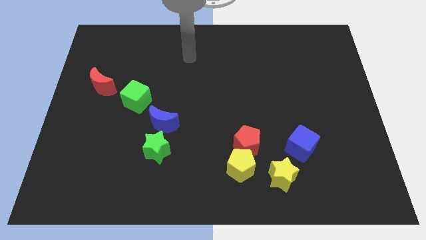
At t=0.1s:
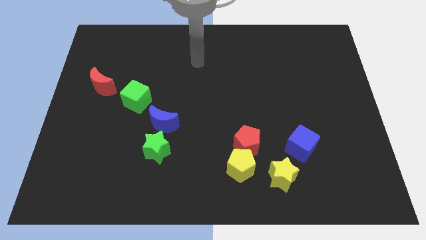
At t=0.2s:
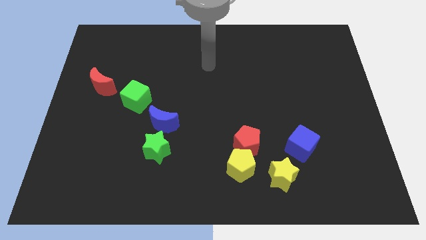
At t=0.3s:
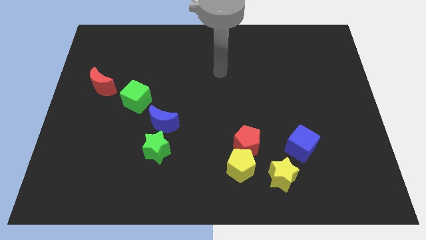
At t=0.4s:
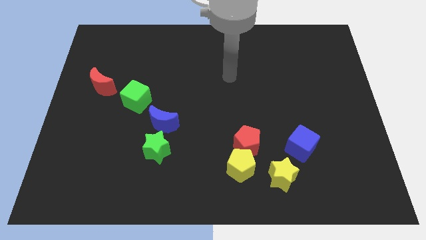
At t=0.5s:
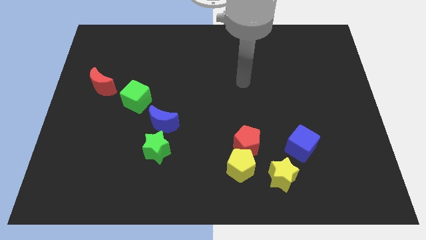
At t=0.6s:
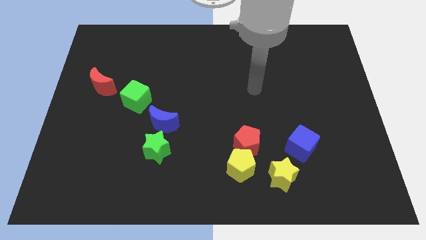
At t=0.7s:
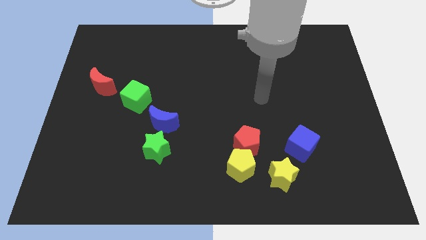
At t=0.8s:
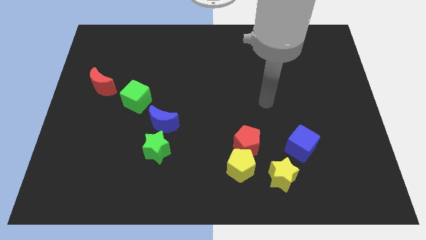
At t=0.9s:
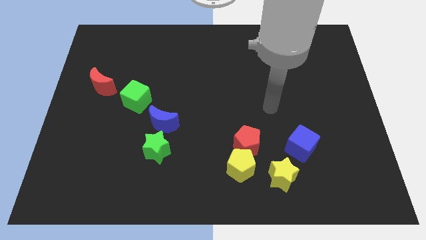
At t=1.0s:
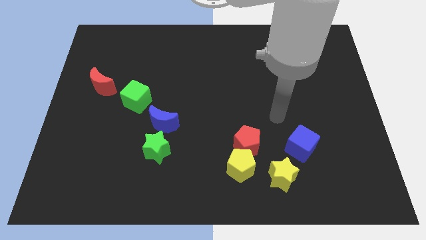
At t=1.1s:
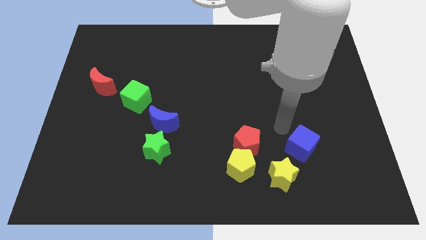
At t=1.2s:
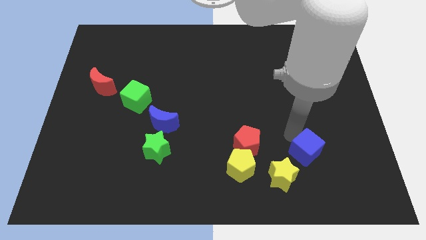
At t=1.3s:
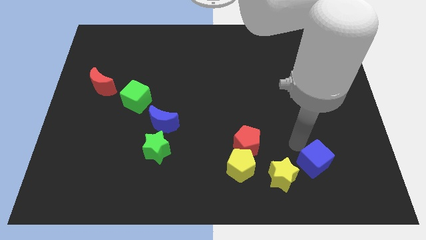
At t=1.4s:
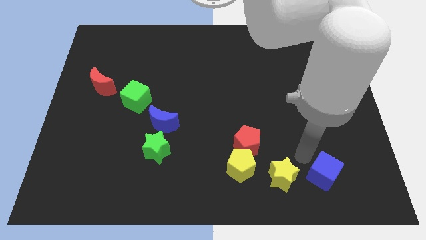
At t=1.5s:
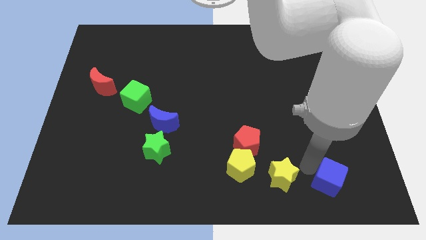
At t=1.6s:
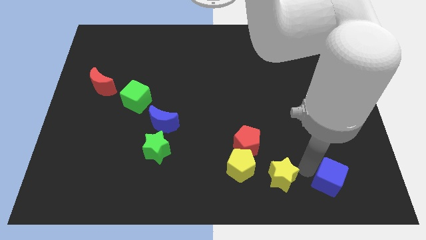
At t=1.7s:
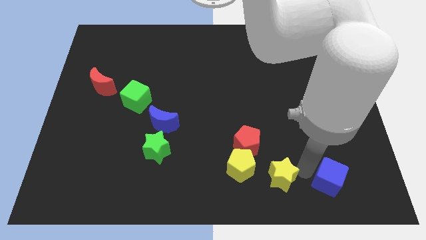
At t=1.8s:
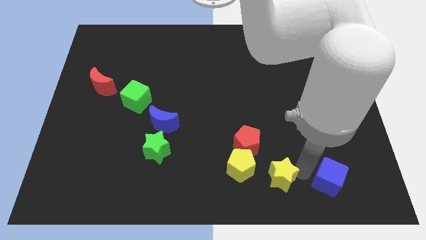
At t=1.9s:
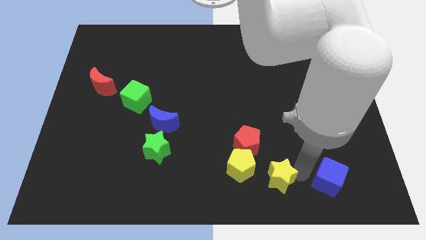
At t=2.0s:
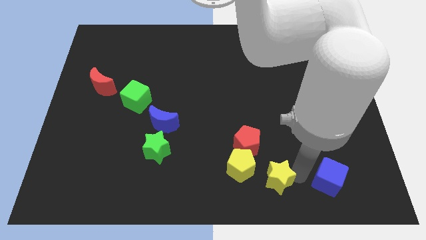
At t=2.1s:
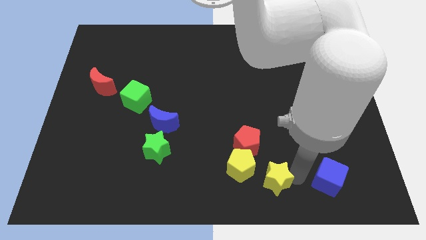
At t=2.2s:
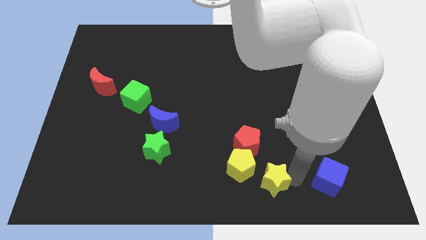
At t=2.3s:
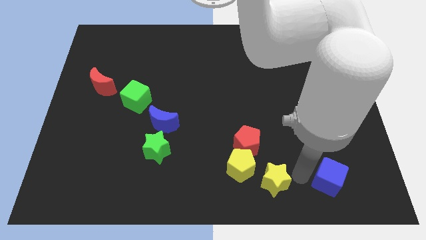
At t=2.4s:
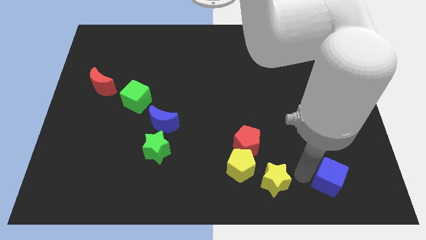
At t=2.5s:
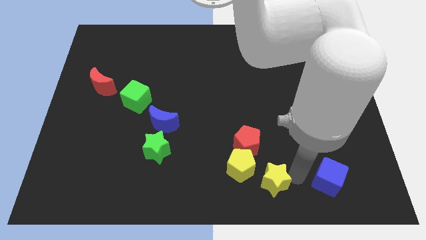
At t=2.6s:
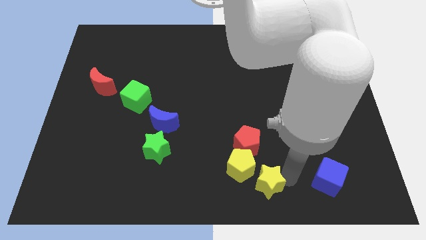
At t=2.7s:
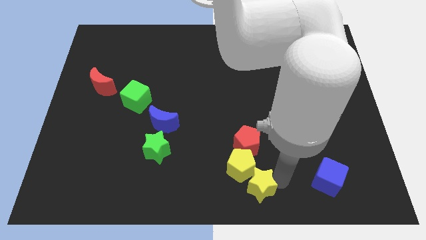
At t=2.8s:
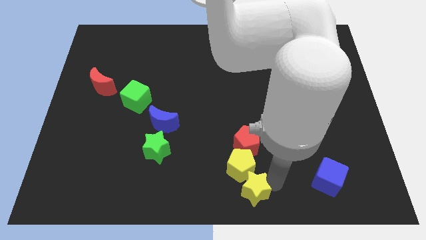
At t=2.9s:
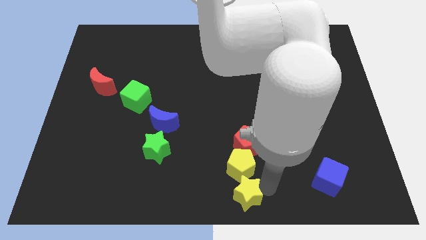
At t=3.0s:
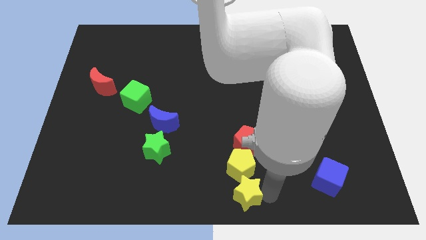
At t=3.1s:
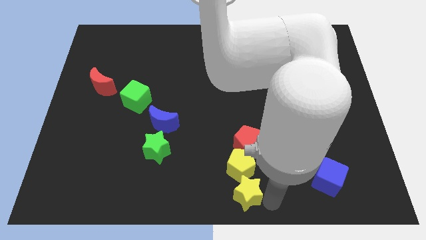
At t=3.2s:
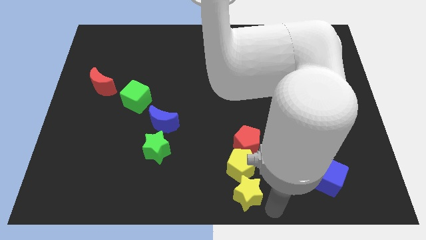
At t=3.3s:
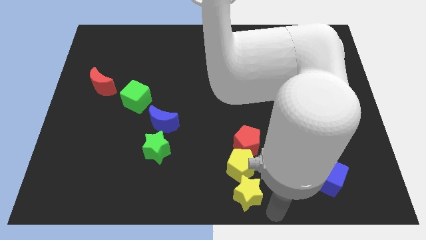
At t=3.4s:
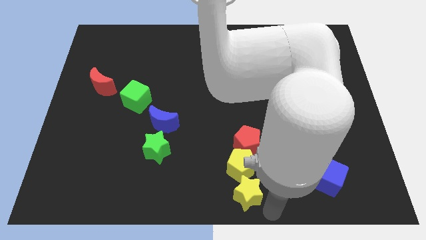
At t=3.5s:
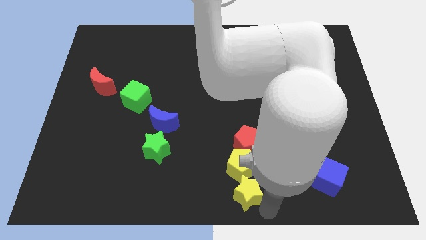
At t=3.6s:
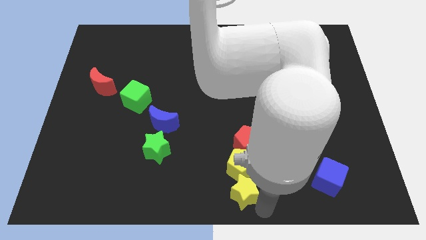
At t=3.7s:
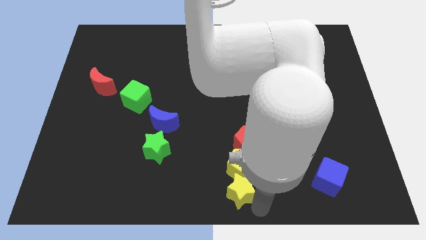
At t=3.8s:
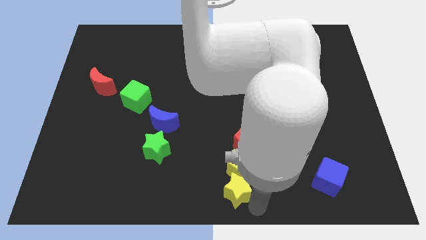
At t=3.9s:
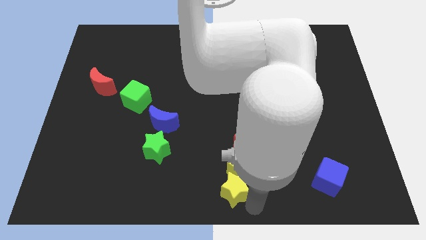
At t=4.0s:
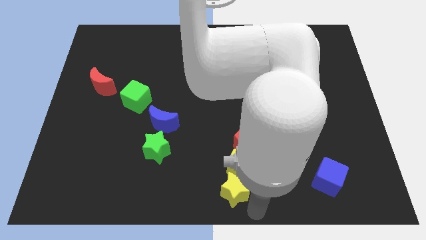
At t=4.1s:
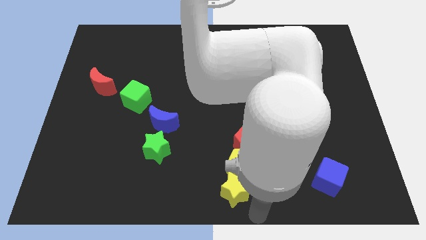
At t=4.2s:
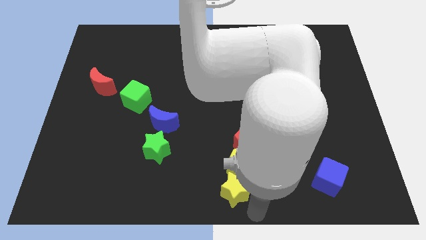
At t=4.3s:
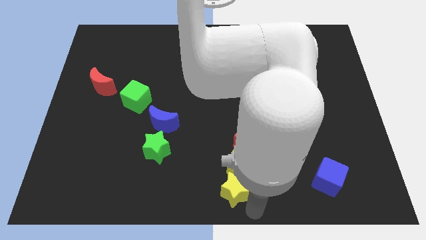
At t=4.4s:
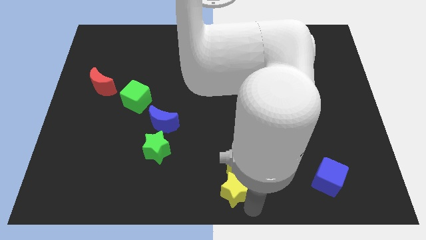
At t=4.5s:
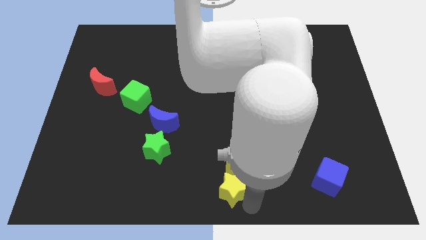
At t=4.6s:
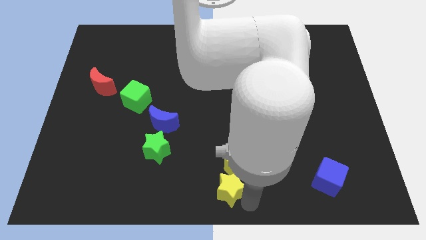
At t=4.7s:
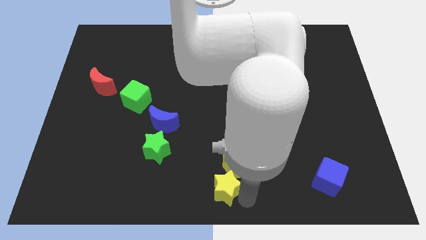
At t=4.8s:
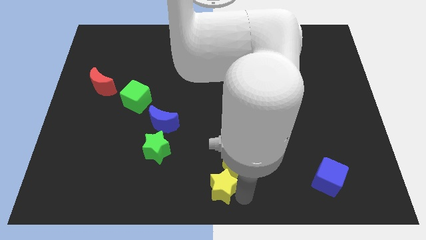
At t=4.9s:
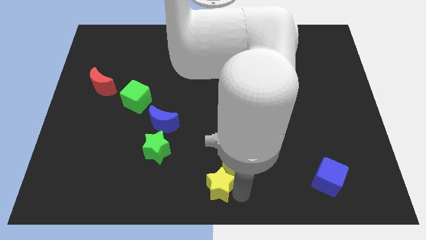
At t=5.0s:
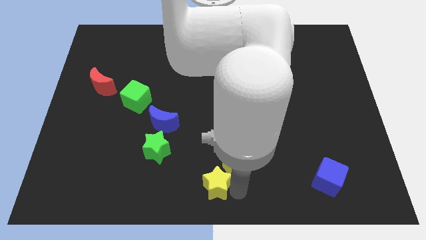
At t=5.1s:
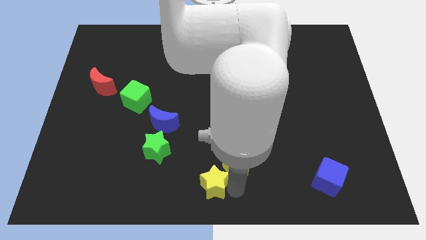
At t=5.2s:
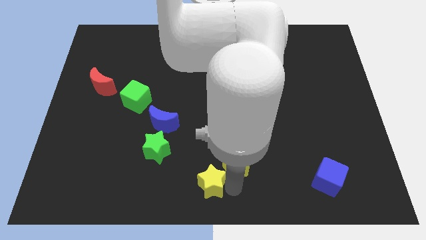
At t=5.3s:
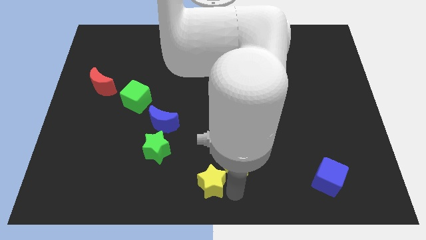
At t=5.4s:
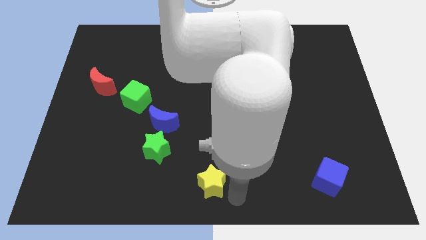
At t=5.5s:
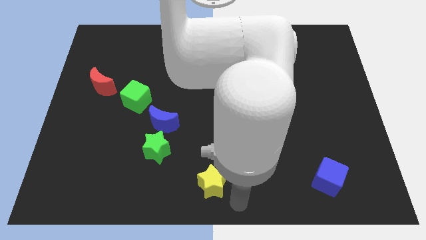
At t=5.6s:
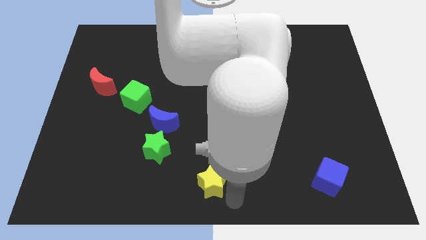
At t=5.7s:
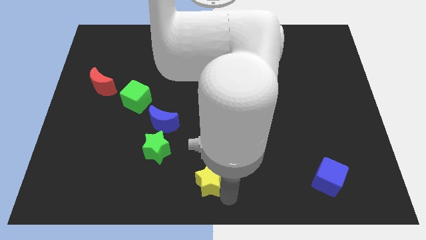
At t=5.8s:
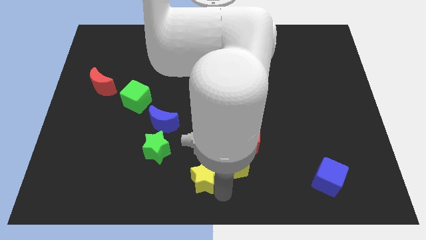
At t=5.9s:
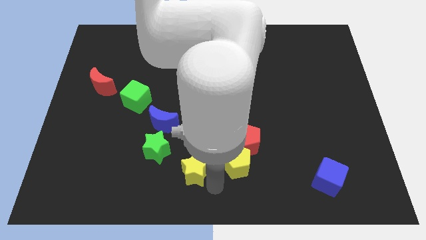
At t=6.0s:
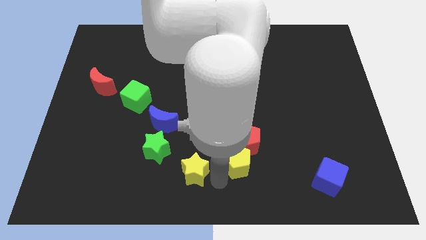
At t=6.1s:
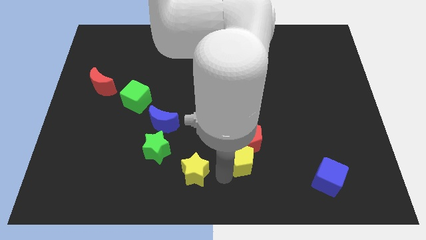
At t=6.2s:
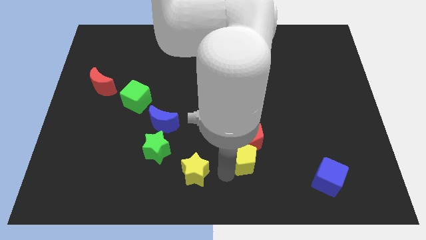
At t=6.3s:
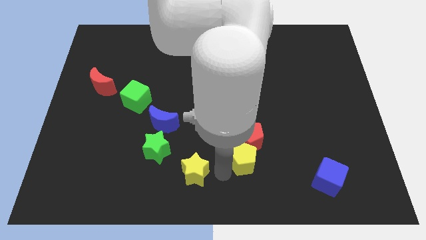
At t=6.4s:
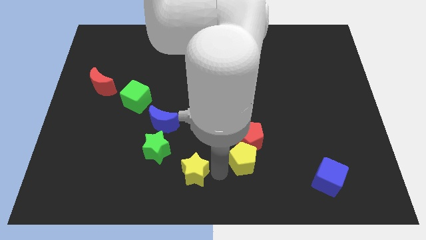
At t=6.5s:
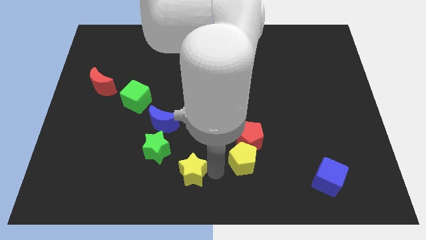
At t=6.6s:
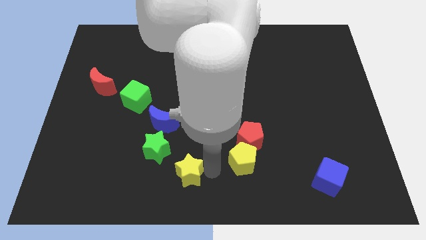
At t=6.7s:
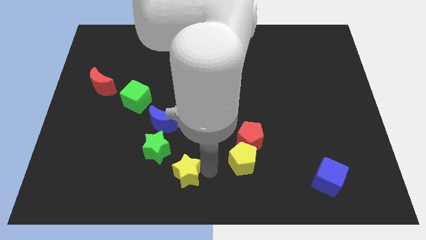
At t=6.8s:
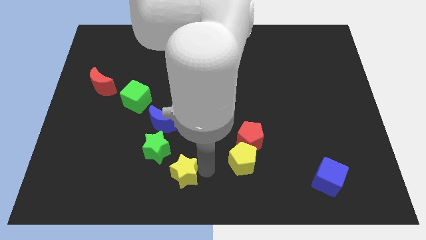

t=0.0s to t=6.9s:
slide the yellow star to the left

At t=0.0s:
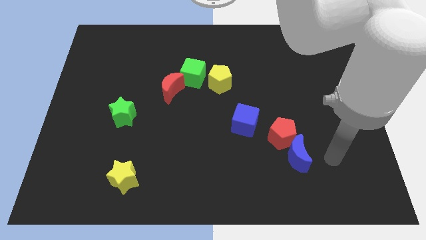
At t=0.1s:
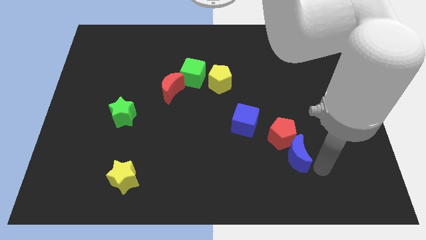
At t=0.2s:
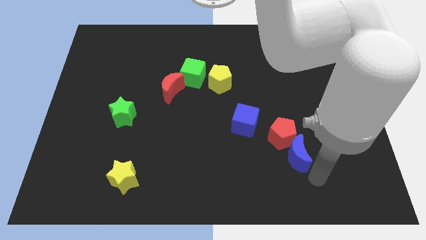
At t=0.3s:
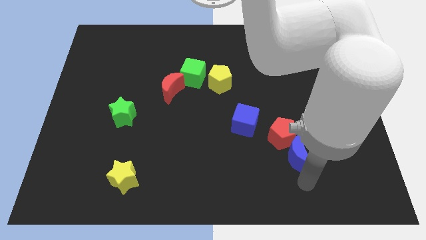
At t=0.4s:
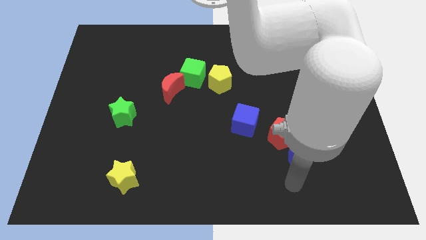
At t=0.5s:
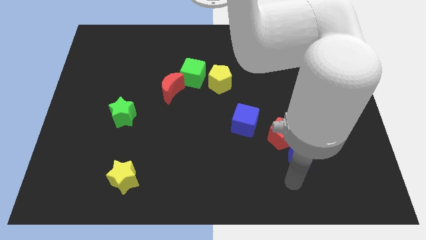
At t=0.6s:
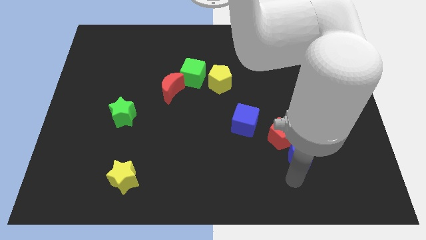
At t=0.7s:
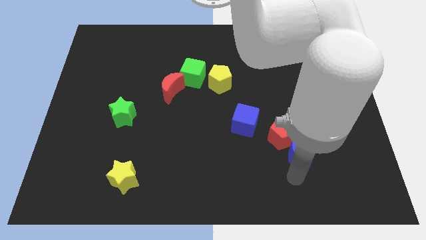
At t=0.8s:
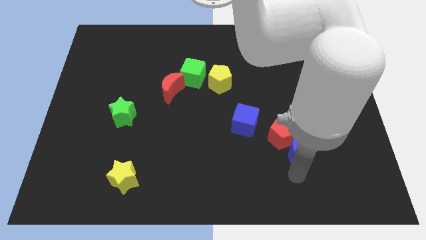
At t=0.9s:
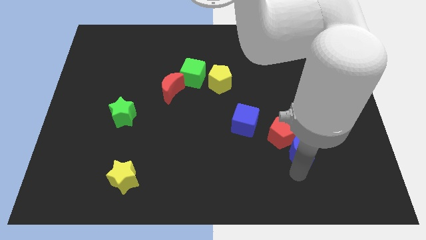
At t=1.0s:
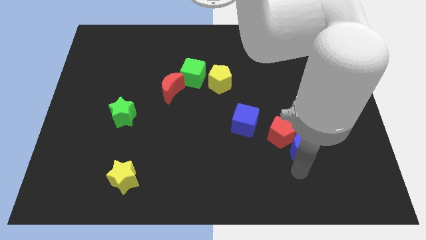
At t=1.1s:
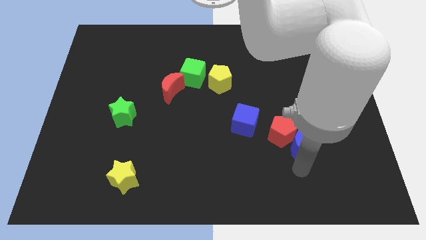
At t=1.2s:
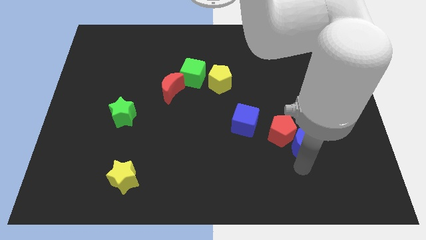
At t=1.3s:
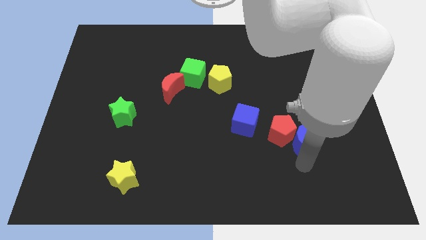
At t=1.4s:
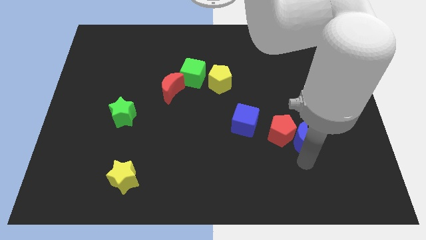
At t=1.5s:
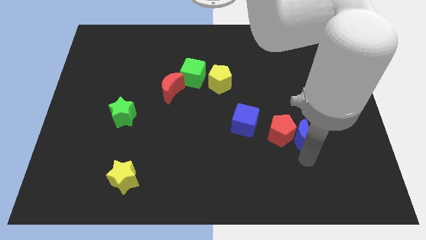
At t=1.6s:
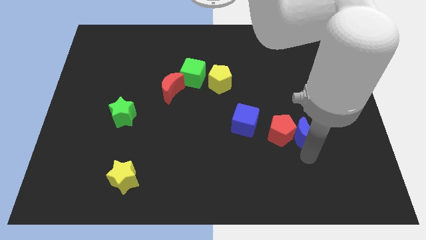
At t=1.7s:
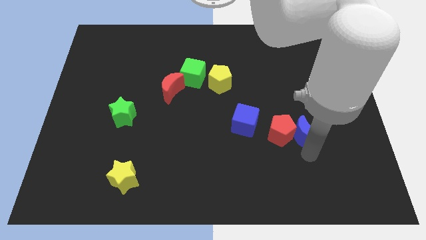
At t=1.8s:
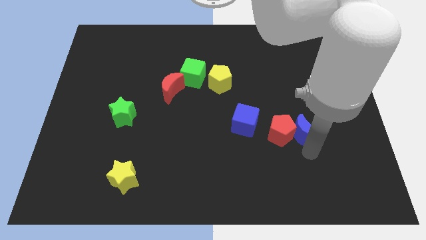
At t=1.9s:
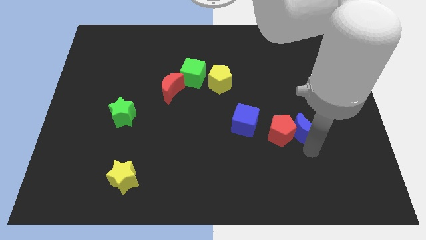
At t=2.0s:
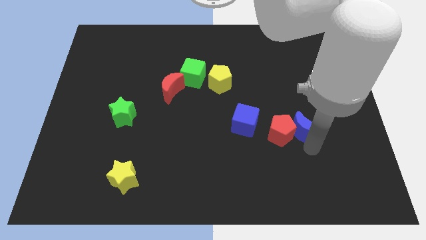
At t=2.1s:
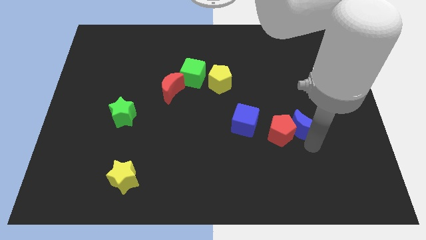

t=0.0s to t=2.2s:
slide the blue moon slightly up
